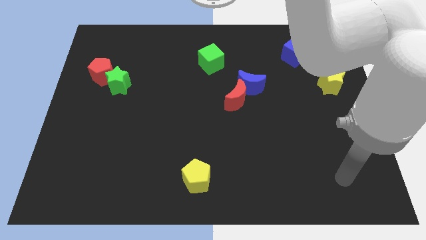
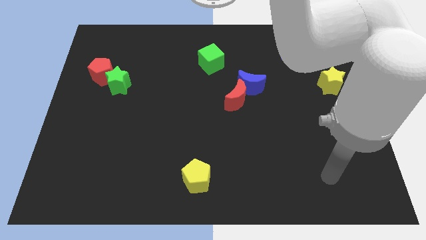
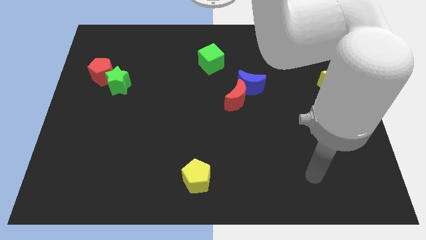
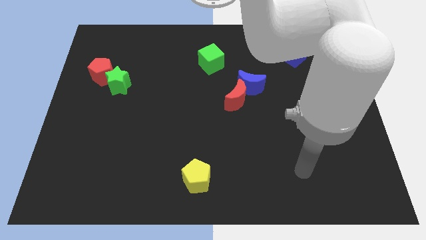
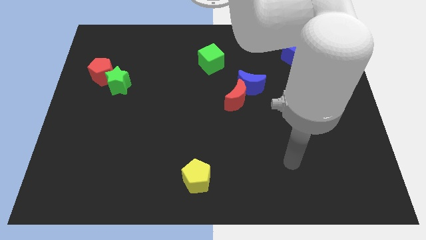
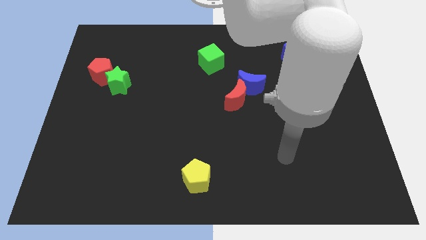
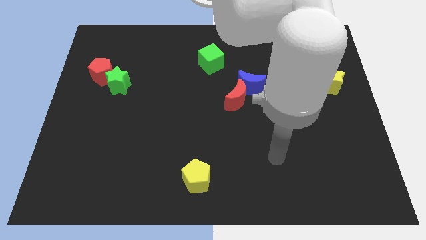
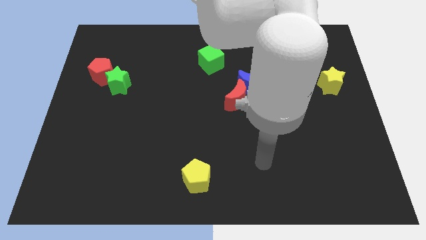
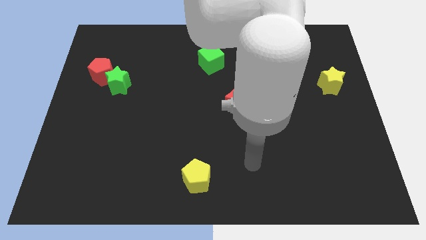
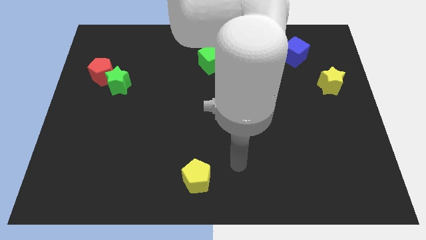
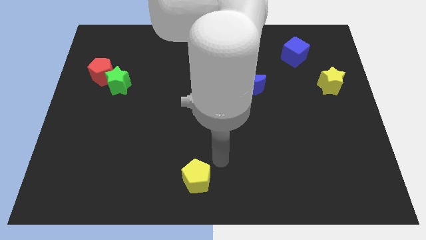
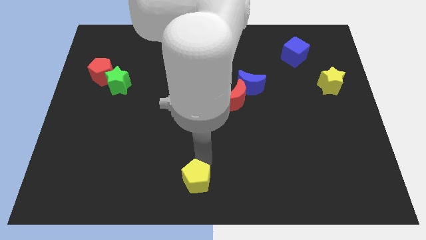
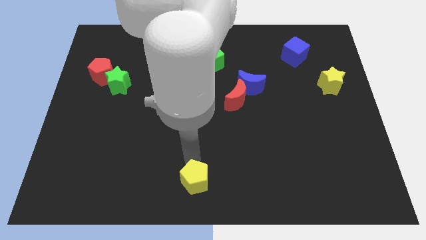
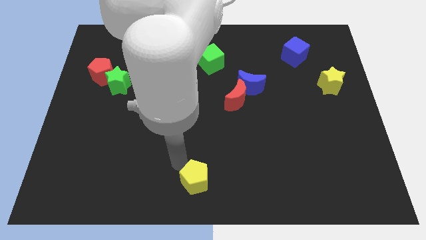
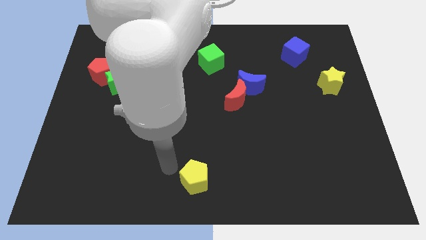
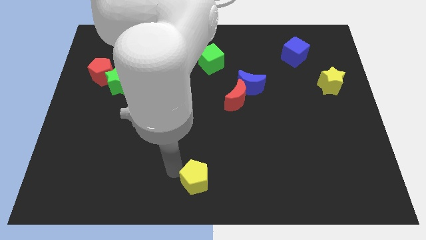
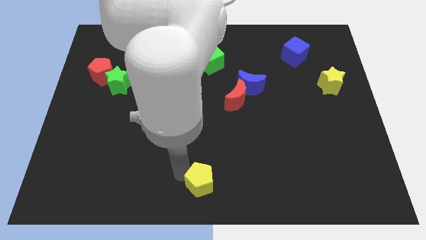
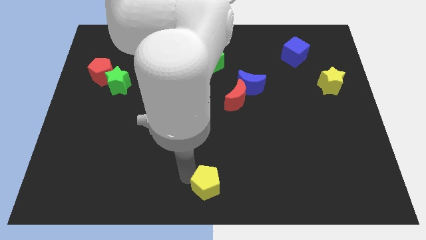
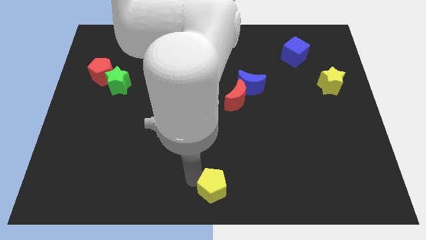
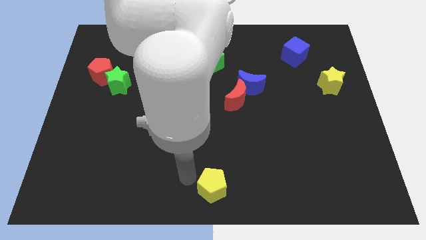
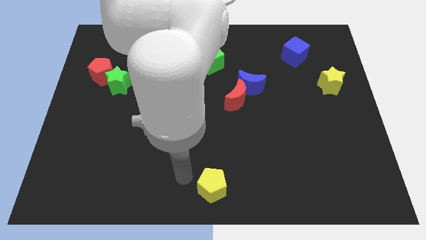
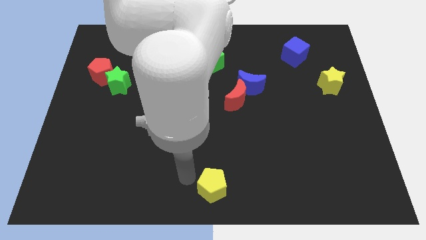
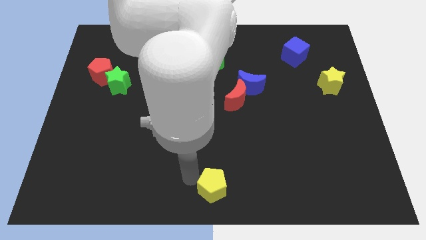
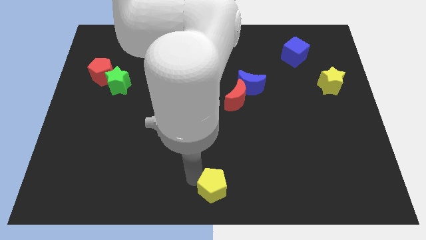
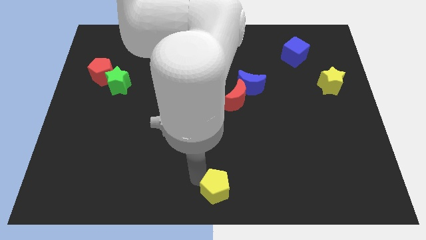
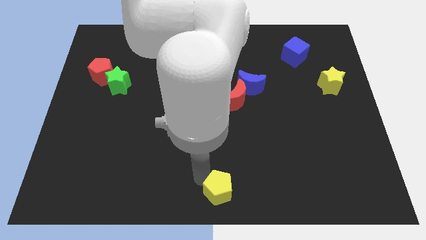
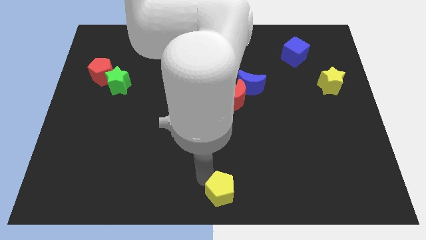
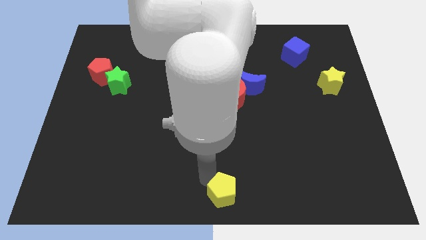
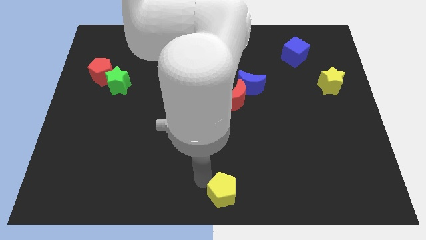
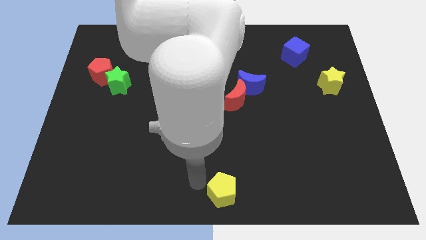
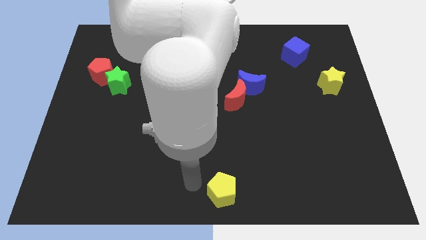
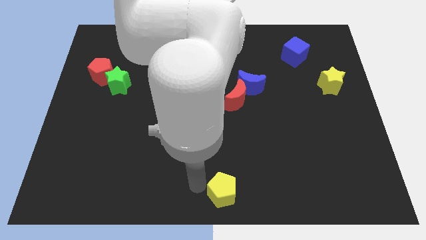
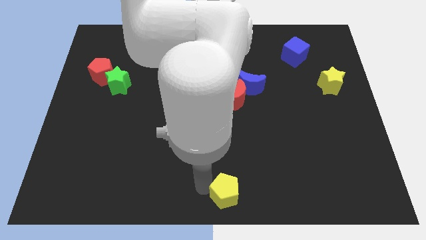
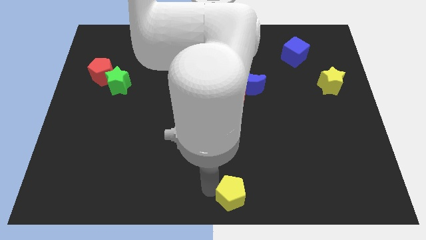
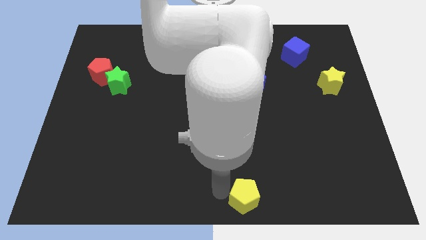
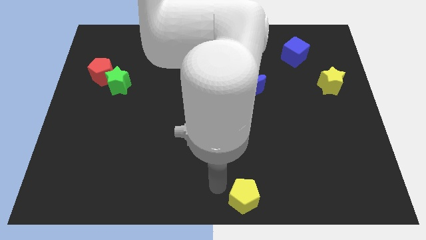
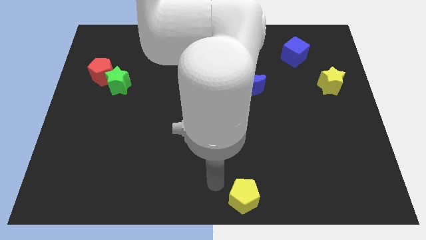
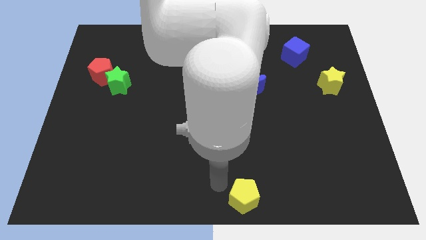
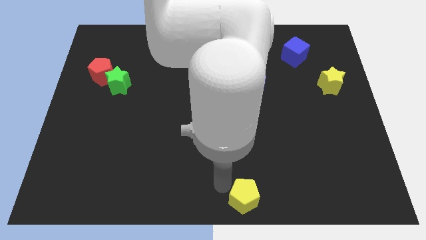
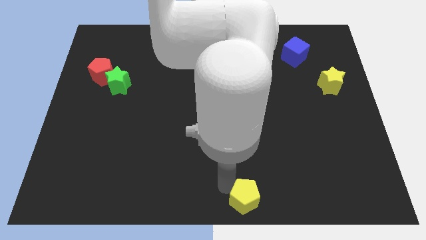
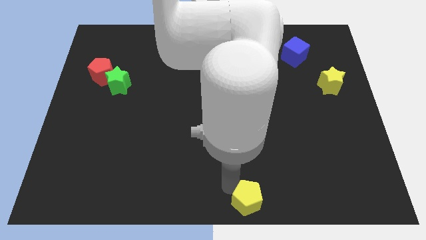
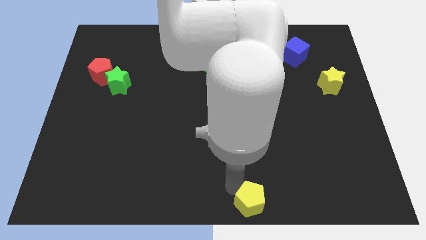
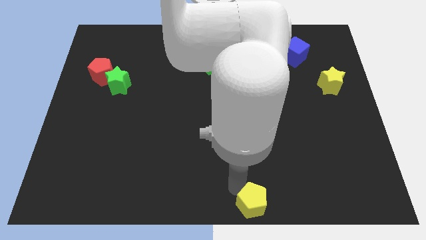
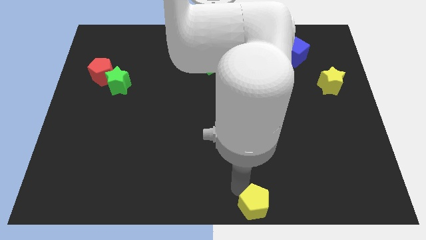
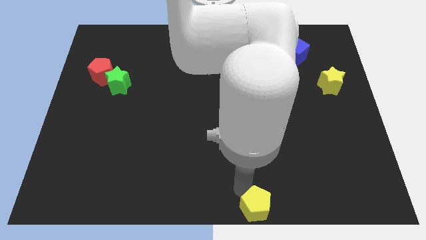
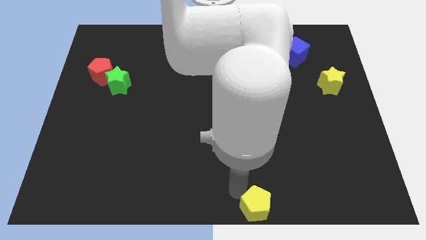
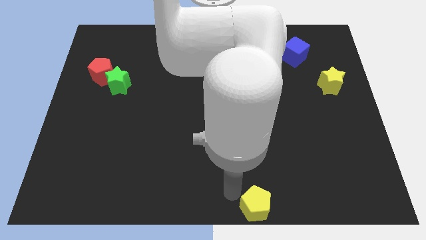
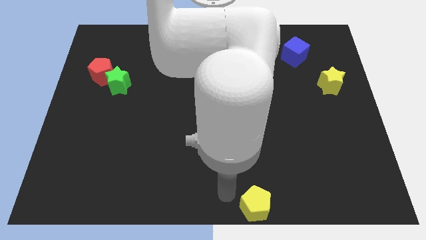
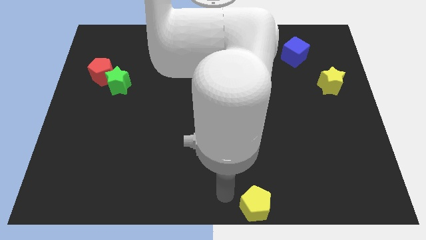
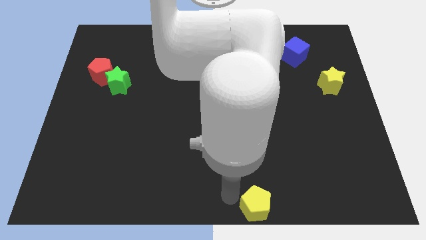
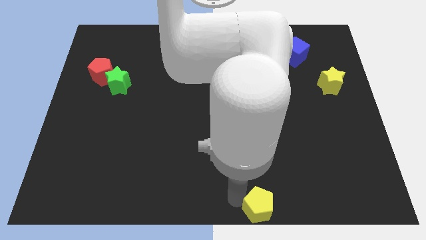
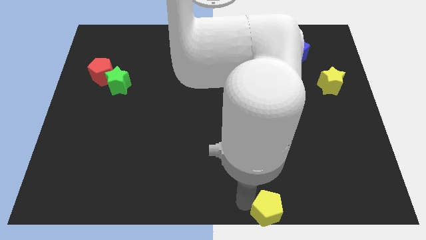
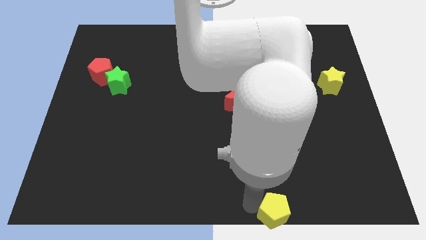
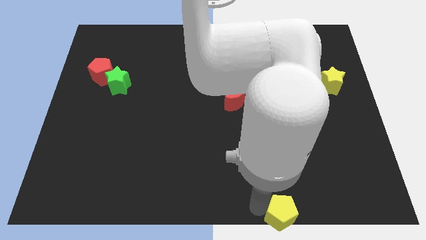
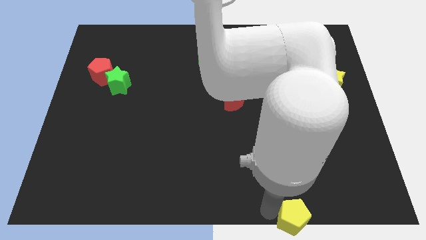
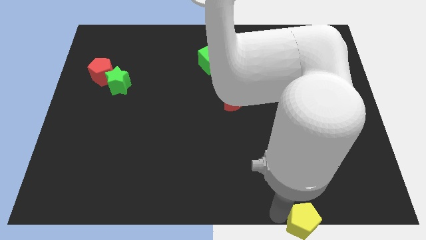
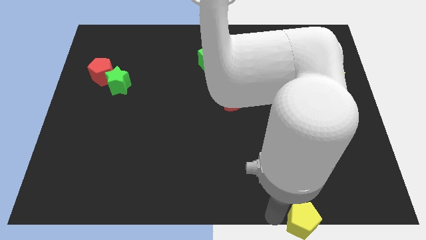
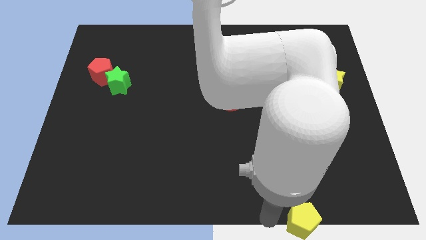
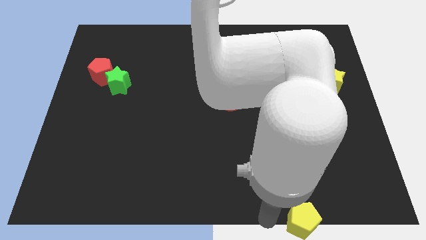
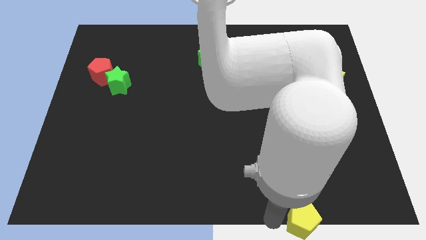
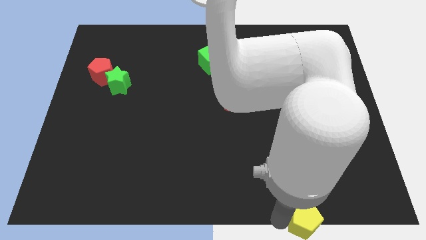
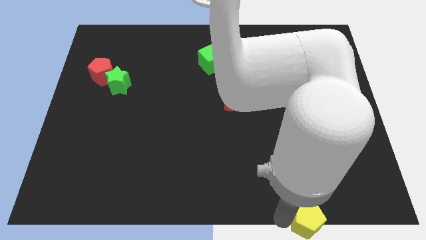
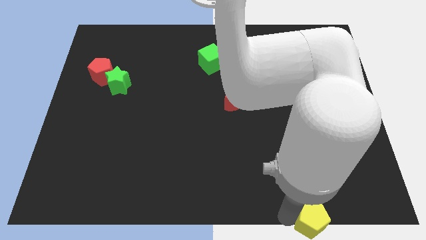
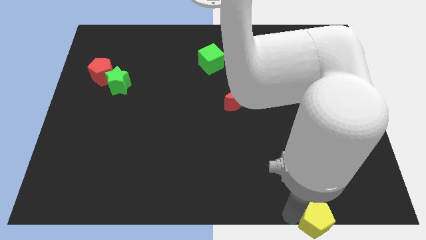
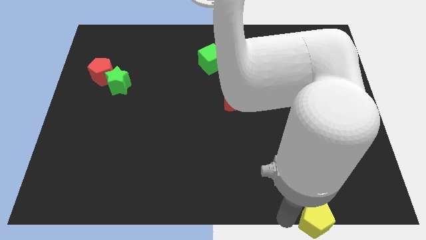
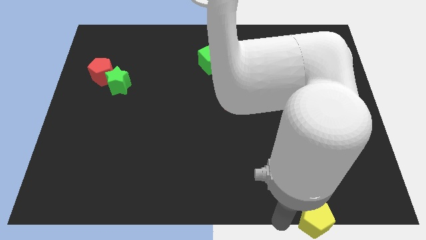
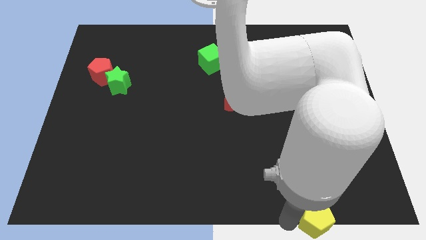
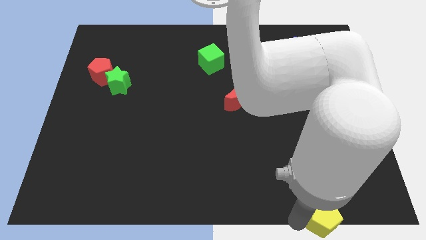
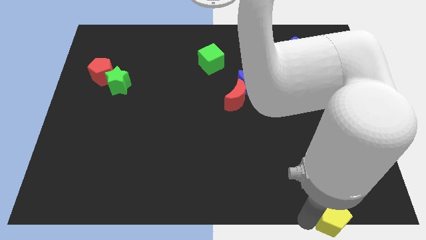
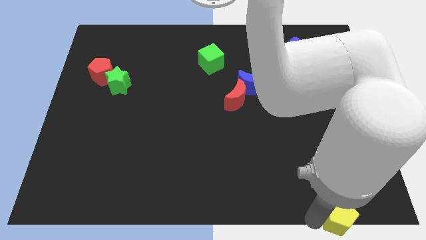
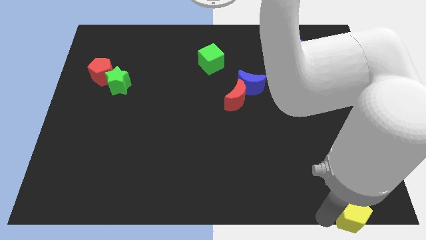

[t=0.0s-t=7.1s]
push the yellow pentagon to the bottom right corner
